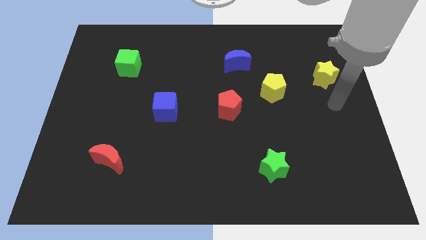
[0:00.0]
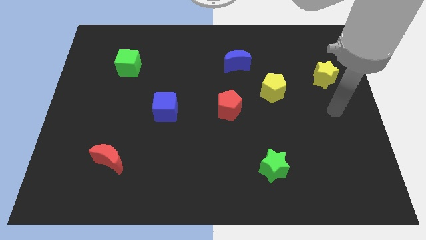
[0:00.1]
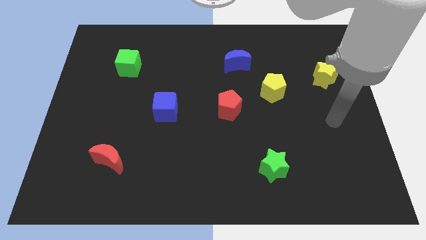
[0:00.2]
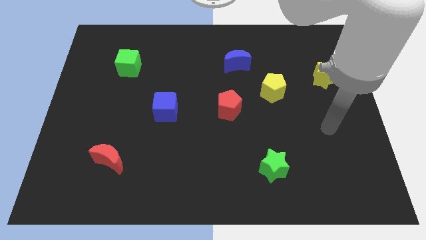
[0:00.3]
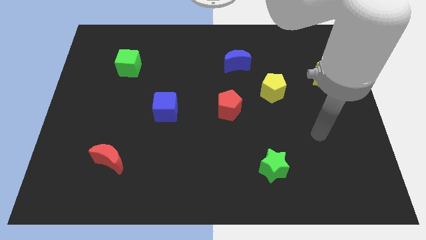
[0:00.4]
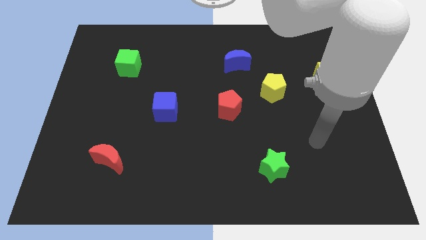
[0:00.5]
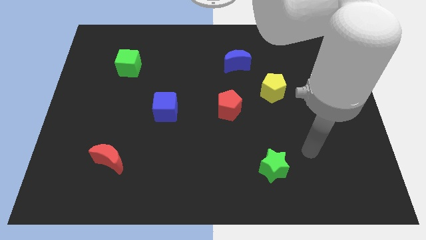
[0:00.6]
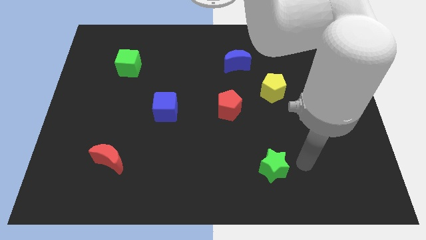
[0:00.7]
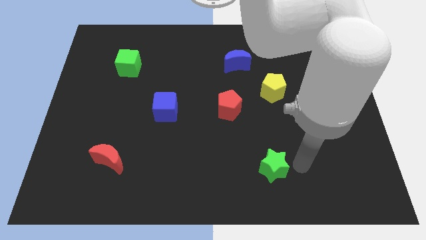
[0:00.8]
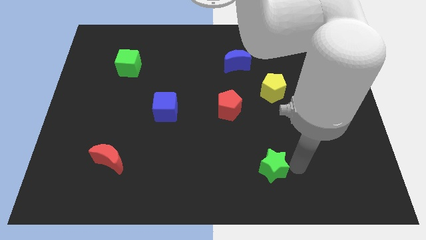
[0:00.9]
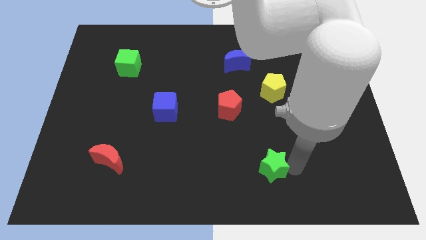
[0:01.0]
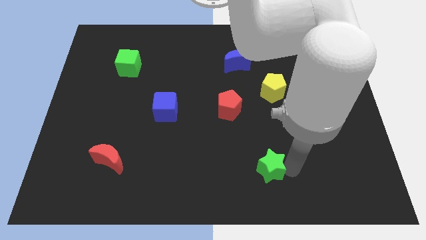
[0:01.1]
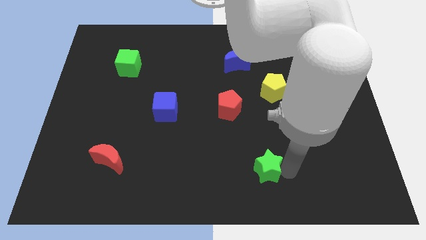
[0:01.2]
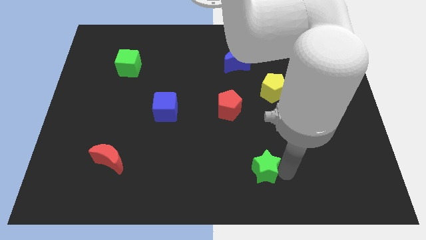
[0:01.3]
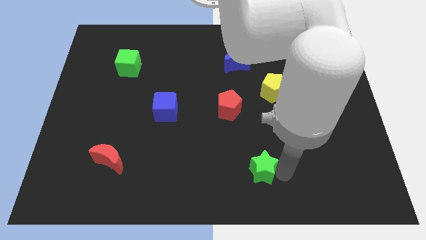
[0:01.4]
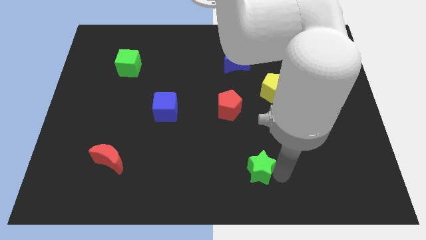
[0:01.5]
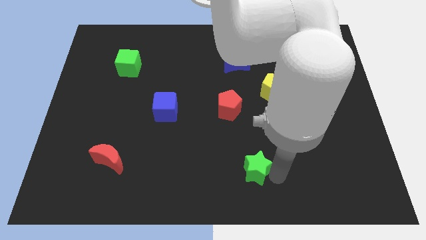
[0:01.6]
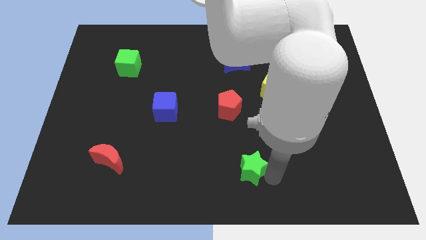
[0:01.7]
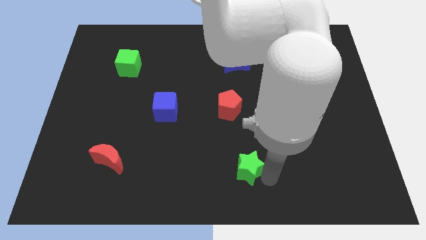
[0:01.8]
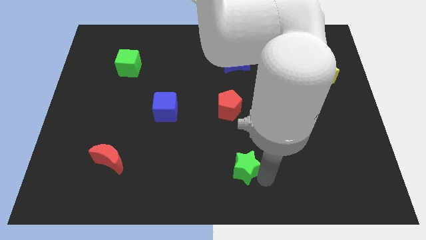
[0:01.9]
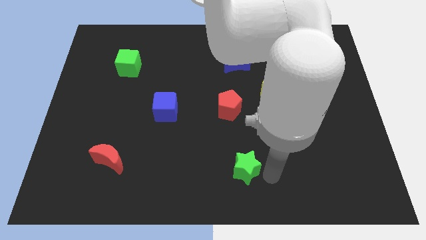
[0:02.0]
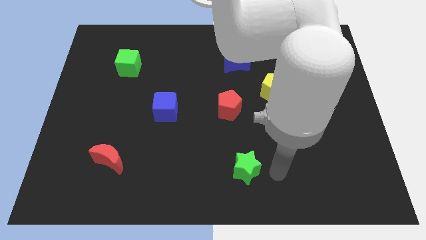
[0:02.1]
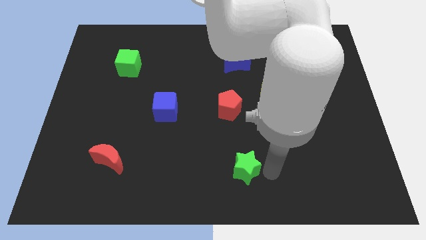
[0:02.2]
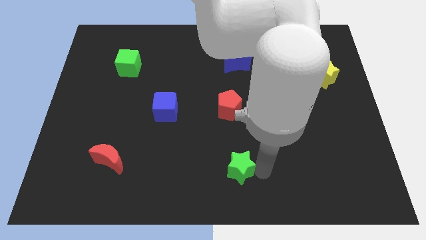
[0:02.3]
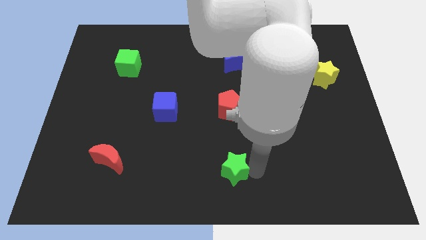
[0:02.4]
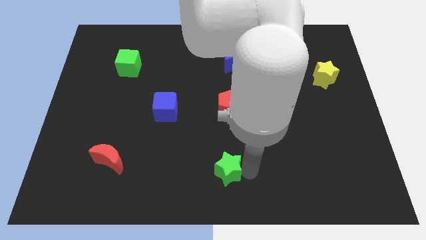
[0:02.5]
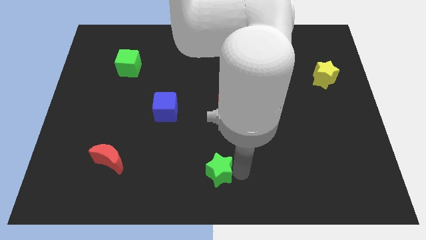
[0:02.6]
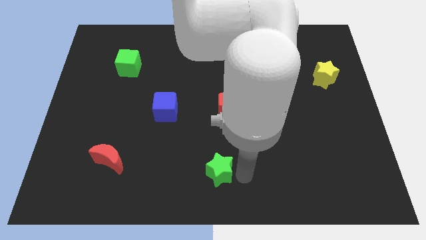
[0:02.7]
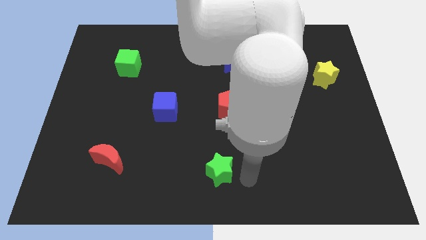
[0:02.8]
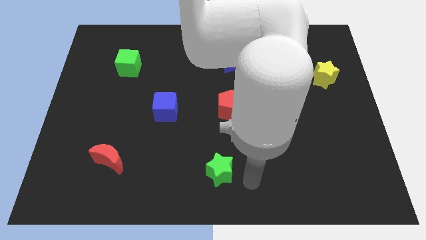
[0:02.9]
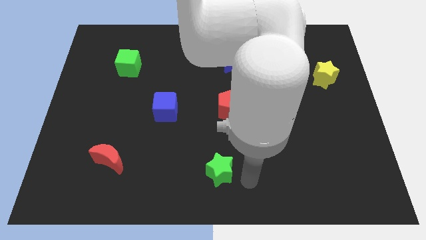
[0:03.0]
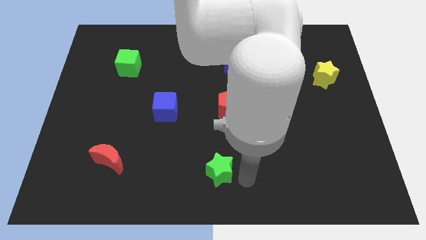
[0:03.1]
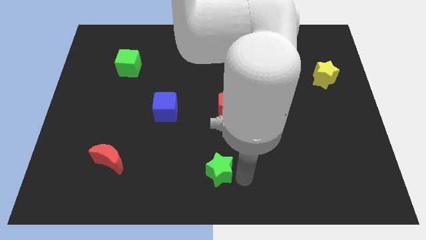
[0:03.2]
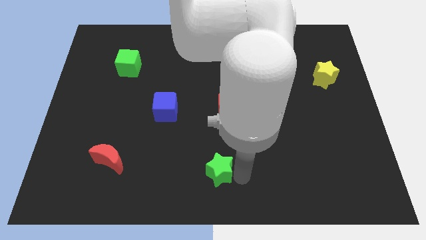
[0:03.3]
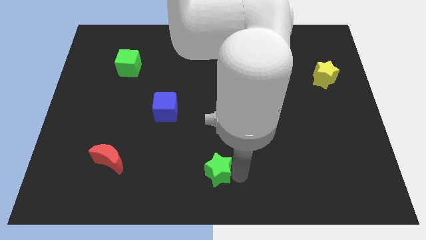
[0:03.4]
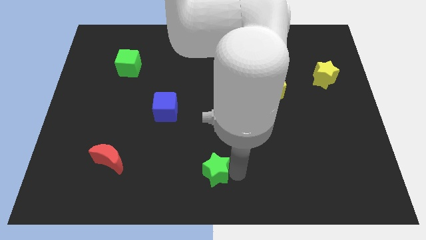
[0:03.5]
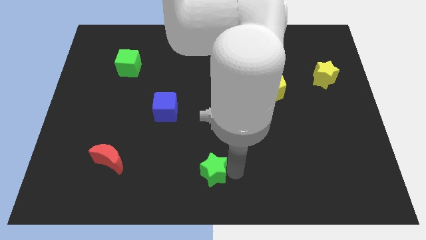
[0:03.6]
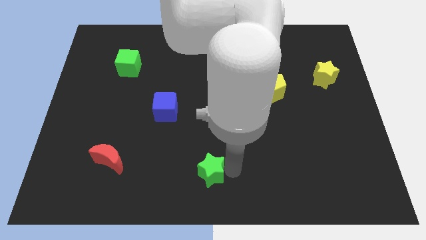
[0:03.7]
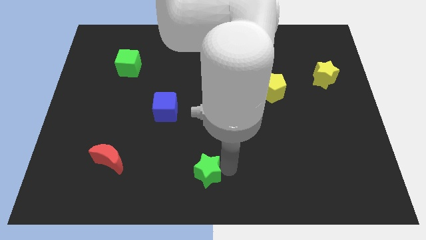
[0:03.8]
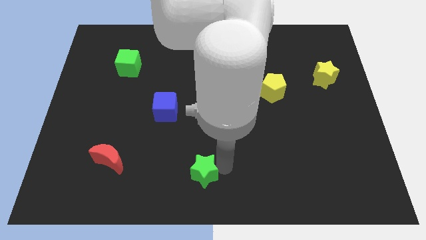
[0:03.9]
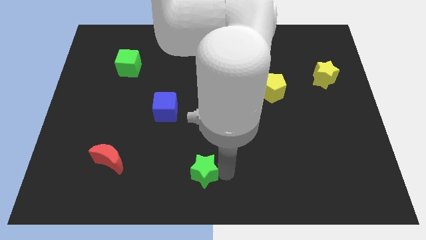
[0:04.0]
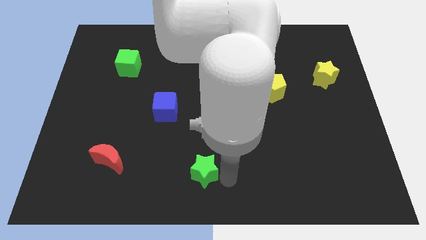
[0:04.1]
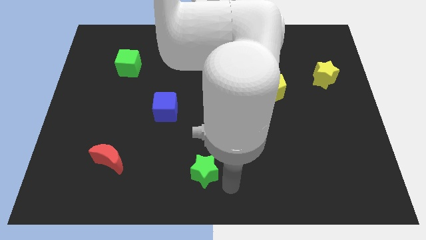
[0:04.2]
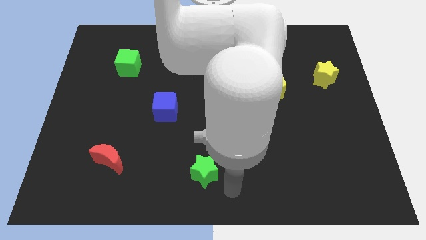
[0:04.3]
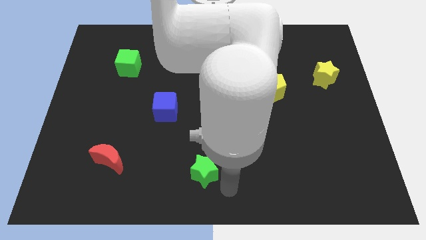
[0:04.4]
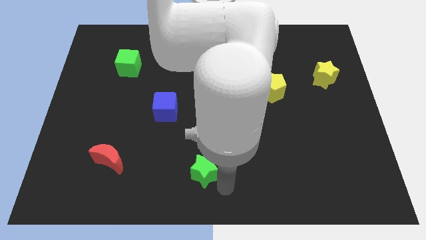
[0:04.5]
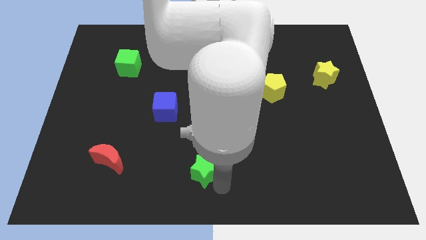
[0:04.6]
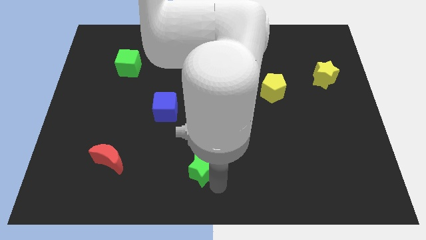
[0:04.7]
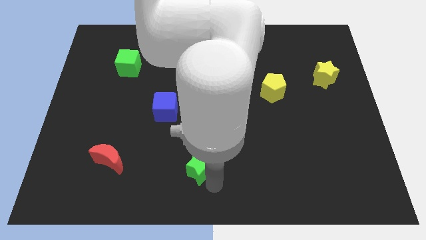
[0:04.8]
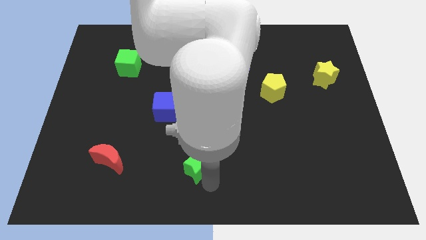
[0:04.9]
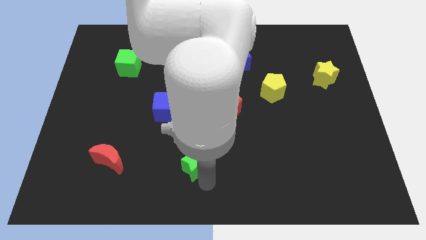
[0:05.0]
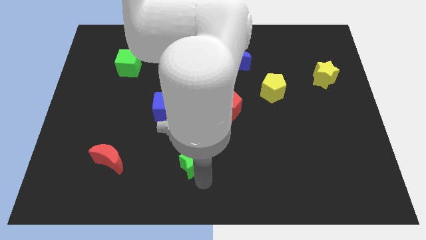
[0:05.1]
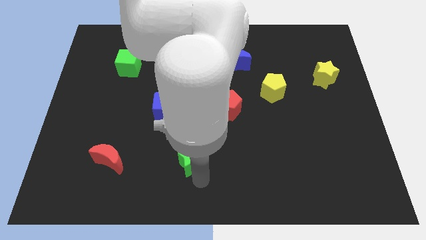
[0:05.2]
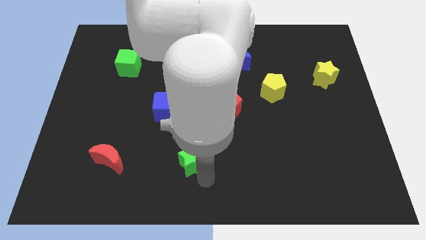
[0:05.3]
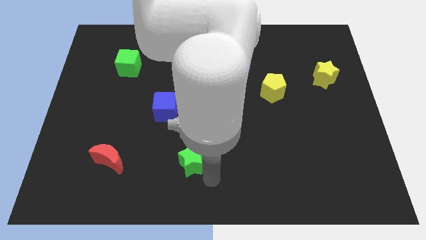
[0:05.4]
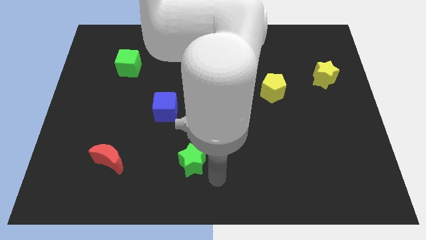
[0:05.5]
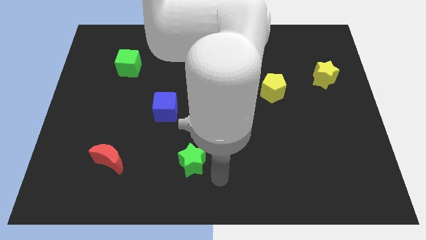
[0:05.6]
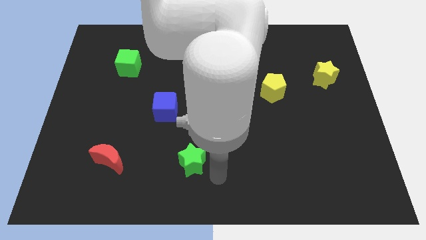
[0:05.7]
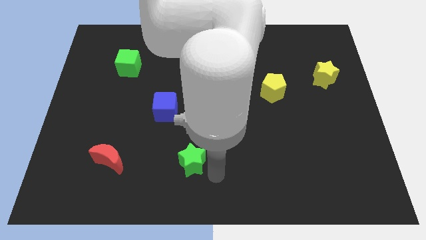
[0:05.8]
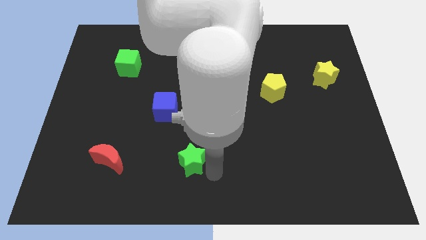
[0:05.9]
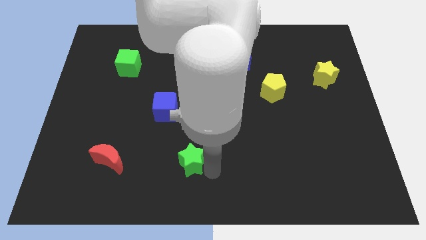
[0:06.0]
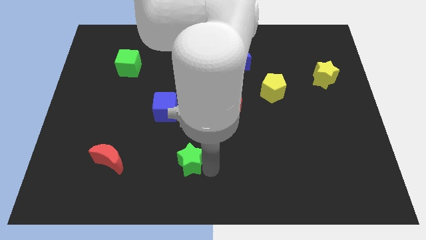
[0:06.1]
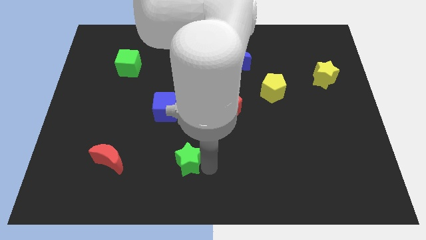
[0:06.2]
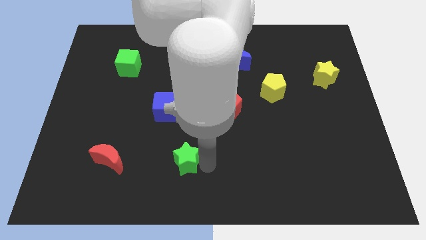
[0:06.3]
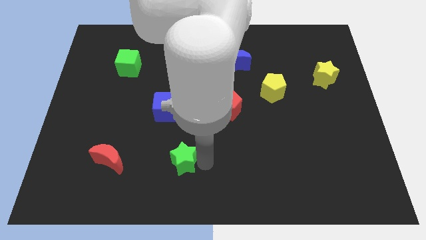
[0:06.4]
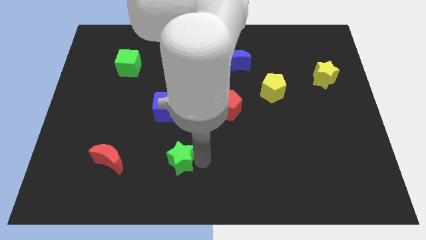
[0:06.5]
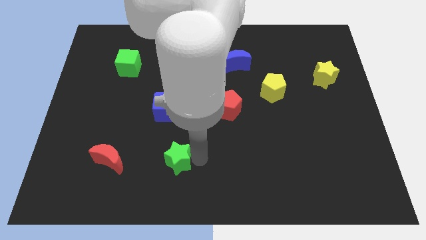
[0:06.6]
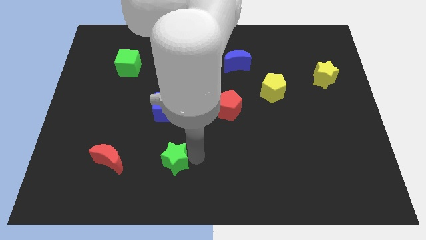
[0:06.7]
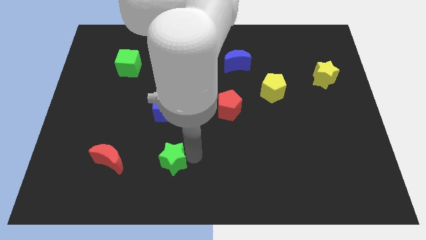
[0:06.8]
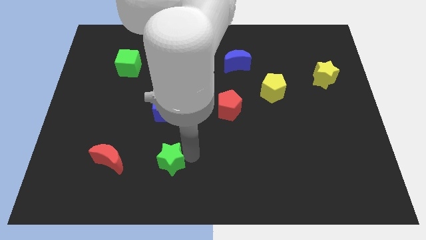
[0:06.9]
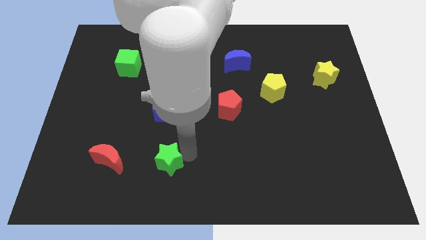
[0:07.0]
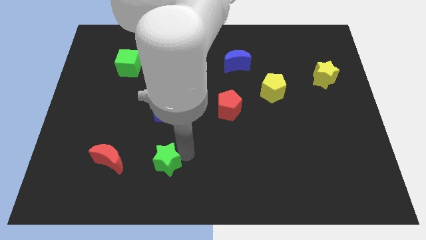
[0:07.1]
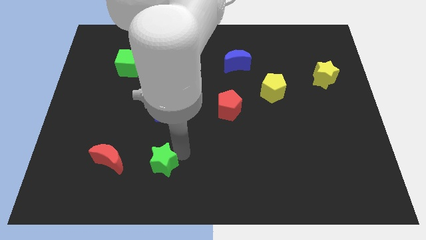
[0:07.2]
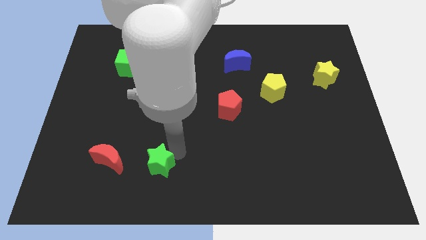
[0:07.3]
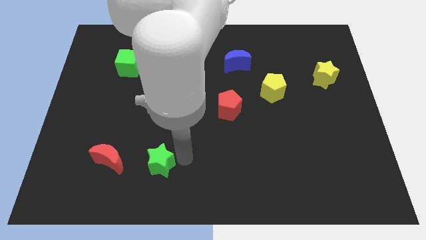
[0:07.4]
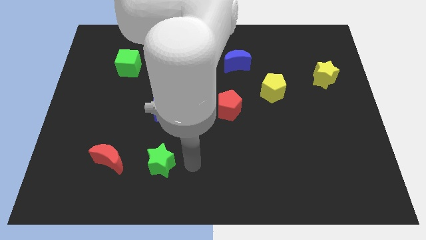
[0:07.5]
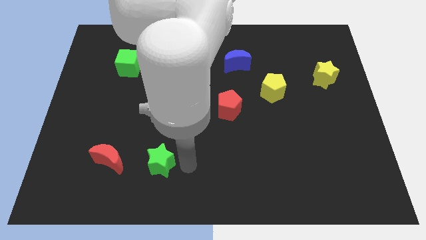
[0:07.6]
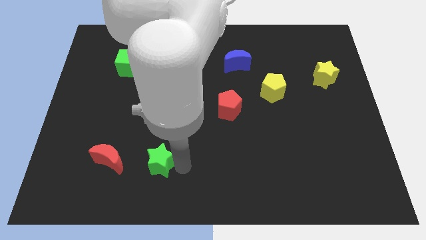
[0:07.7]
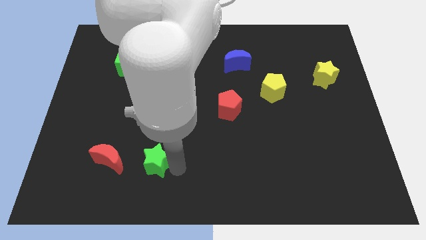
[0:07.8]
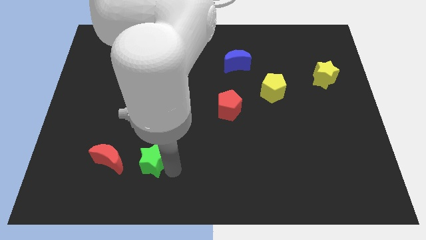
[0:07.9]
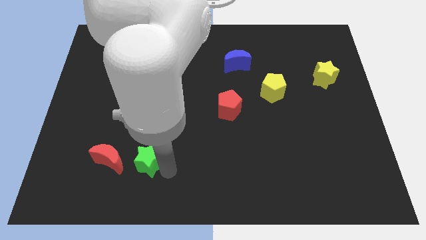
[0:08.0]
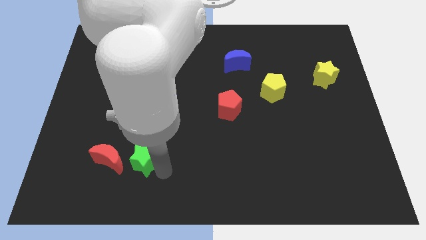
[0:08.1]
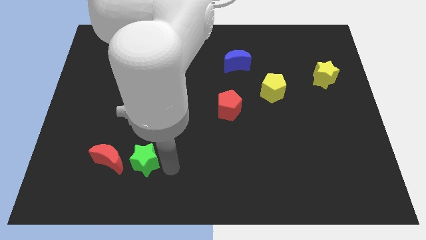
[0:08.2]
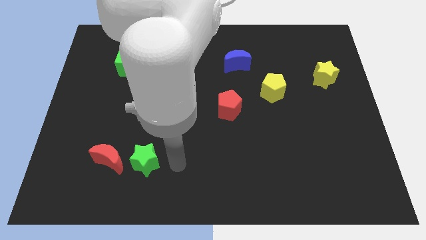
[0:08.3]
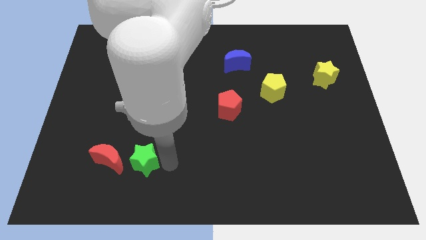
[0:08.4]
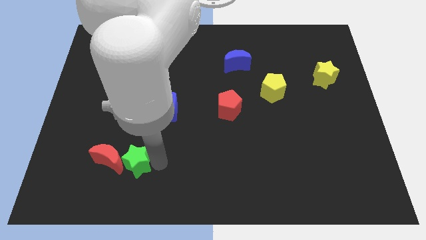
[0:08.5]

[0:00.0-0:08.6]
push the green star to the red moon
